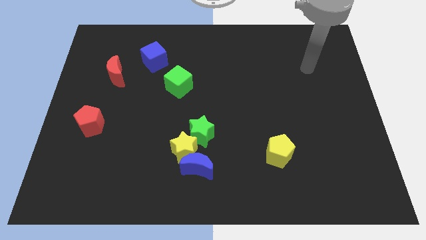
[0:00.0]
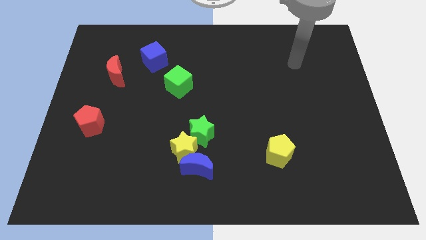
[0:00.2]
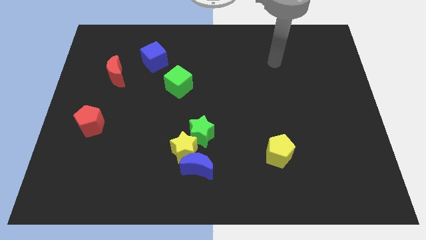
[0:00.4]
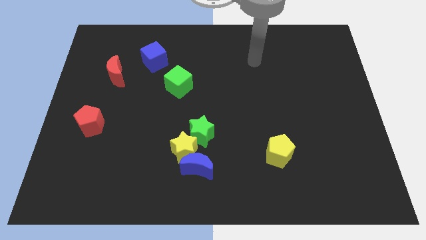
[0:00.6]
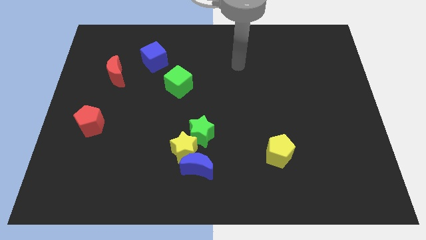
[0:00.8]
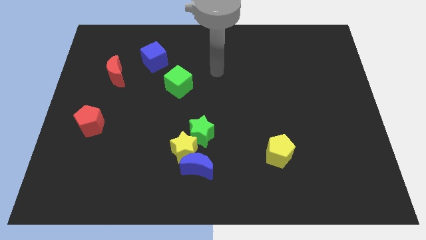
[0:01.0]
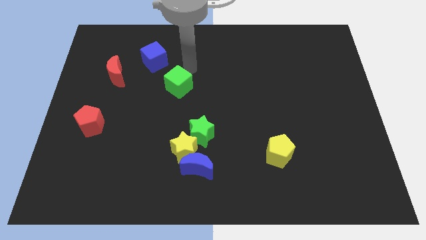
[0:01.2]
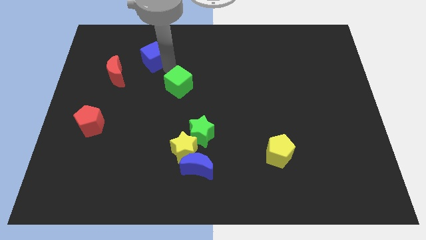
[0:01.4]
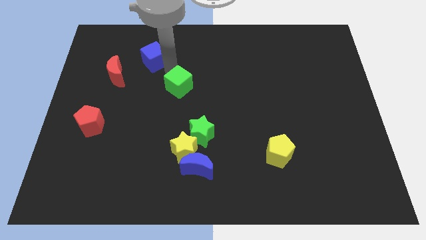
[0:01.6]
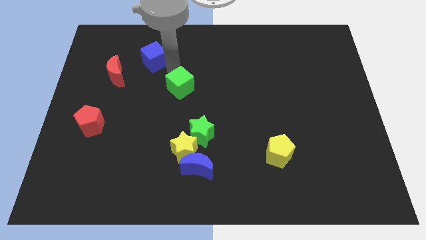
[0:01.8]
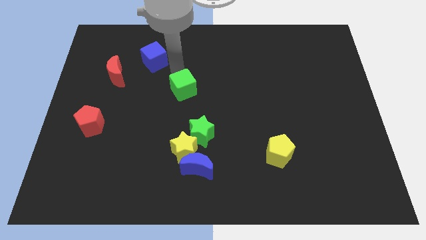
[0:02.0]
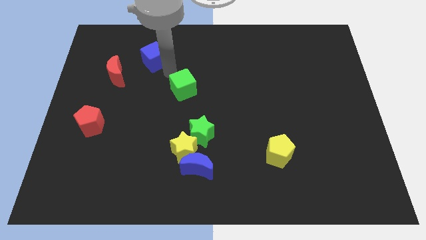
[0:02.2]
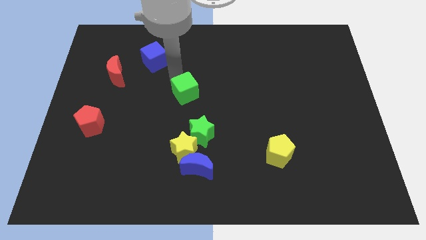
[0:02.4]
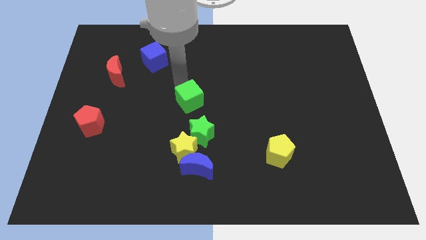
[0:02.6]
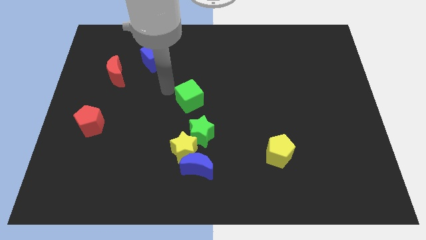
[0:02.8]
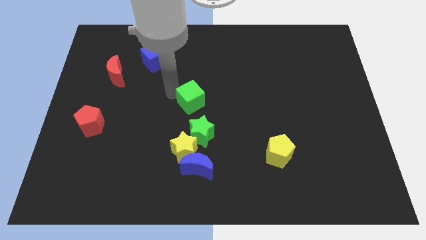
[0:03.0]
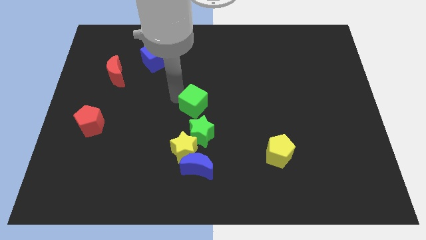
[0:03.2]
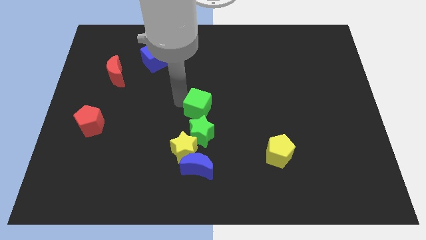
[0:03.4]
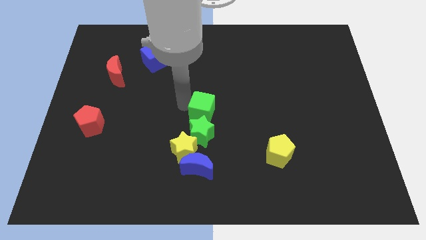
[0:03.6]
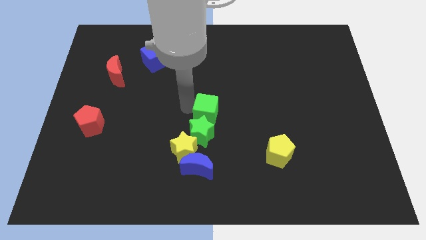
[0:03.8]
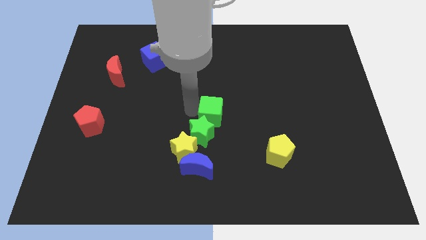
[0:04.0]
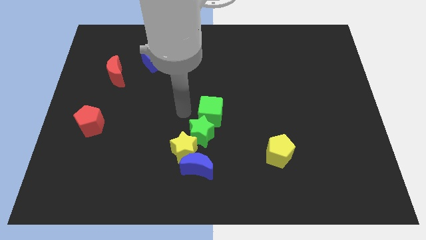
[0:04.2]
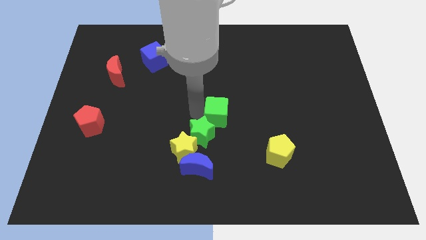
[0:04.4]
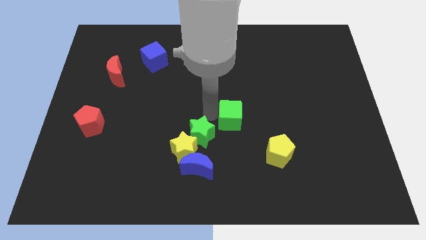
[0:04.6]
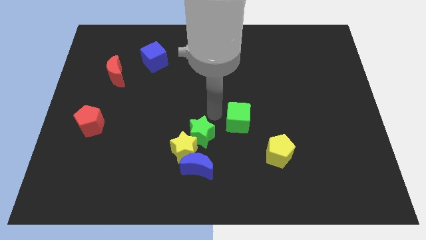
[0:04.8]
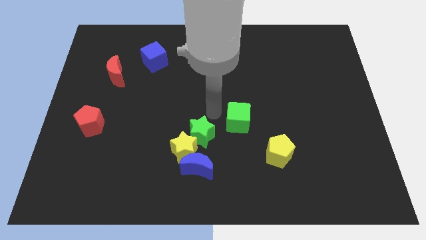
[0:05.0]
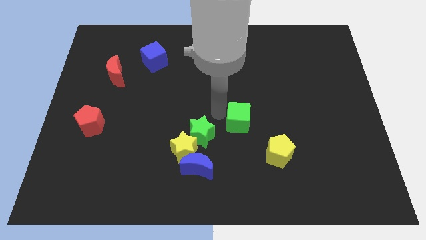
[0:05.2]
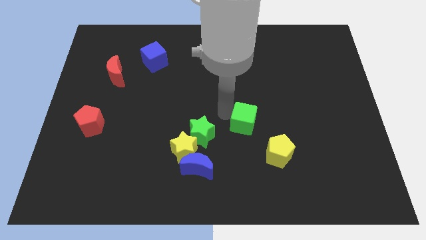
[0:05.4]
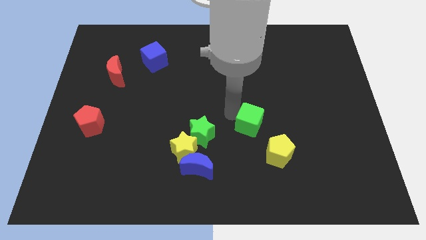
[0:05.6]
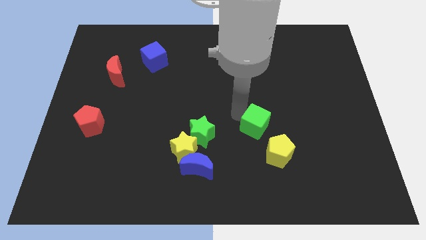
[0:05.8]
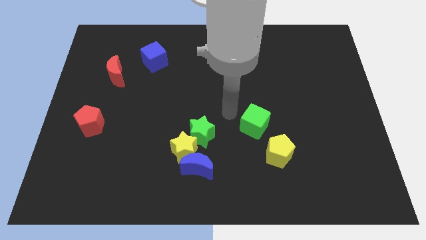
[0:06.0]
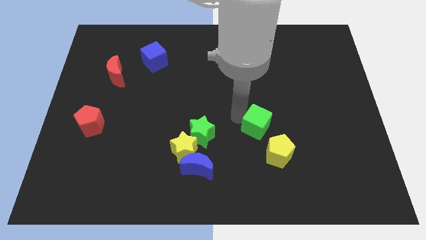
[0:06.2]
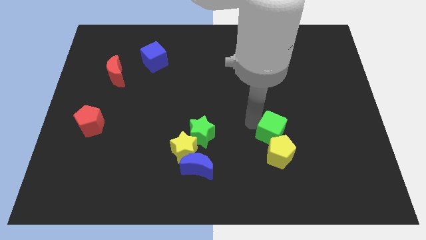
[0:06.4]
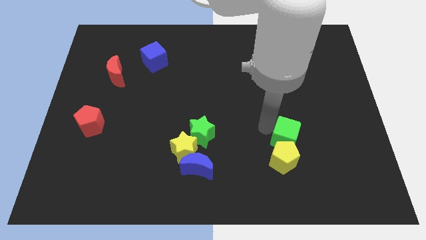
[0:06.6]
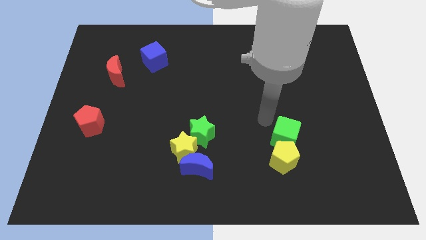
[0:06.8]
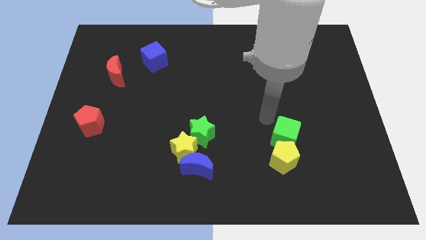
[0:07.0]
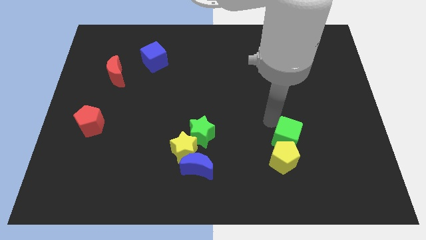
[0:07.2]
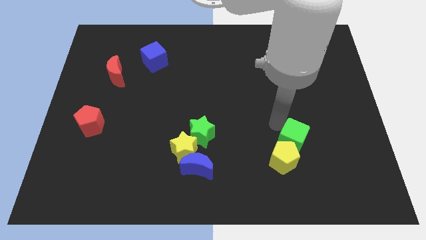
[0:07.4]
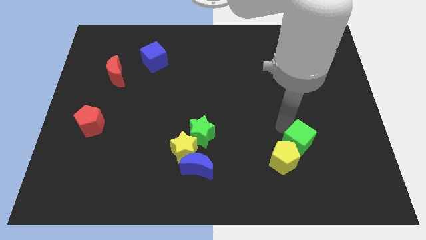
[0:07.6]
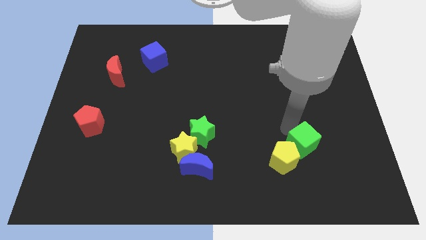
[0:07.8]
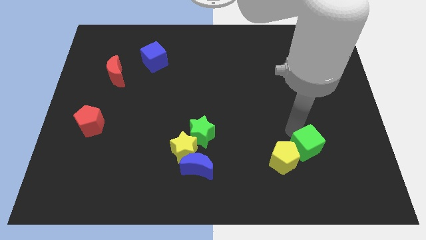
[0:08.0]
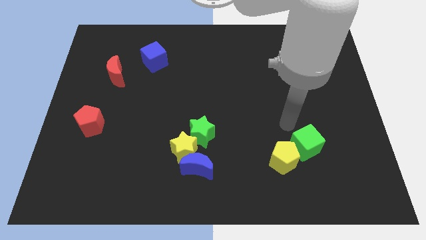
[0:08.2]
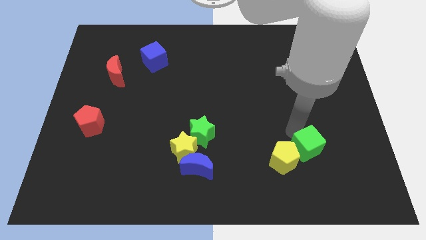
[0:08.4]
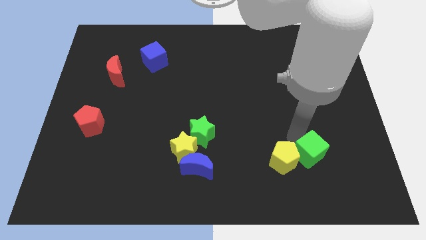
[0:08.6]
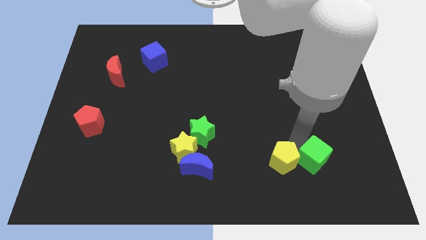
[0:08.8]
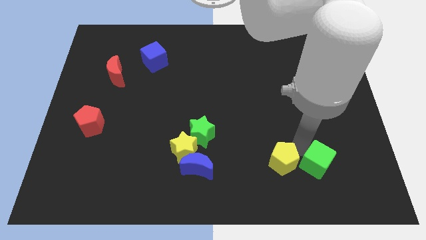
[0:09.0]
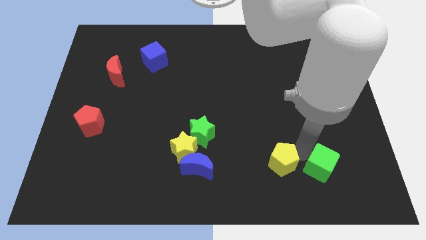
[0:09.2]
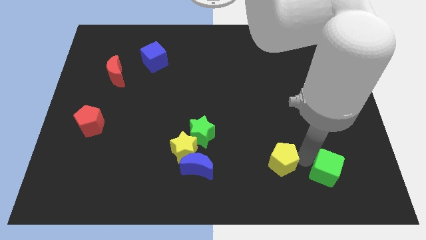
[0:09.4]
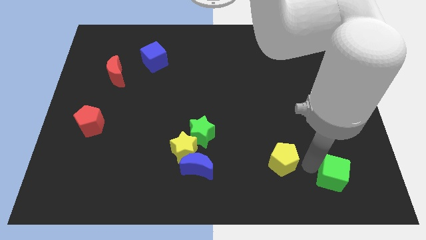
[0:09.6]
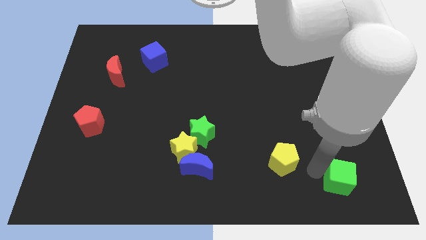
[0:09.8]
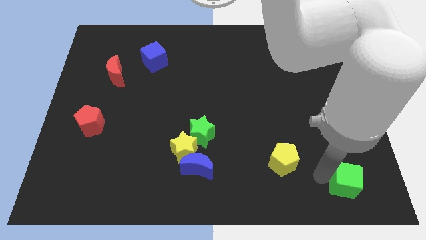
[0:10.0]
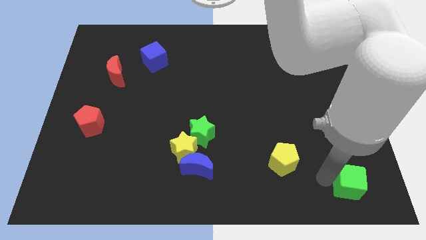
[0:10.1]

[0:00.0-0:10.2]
move the green cube to the bottom right corner

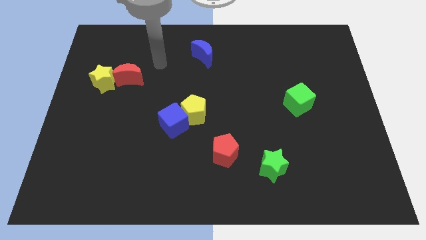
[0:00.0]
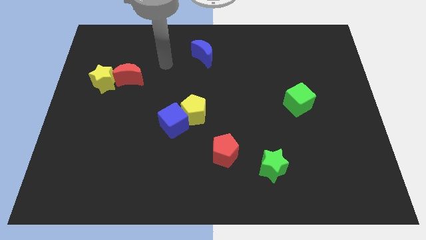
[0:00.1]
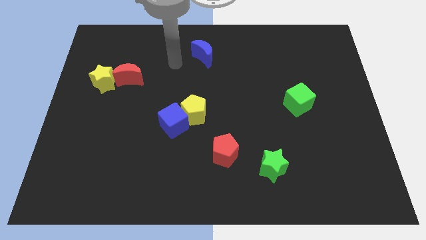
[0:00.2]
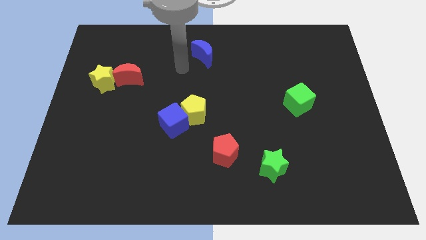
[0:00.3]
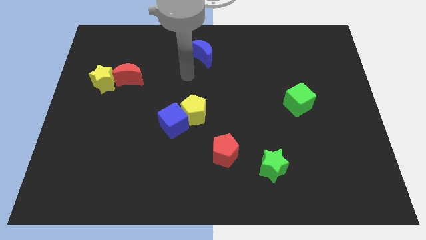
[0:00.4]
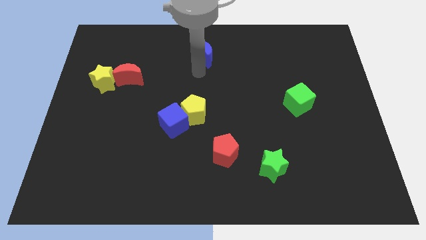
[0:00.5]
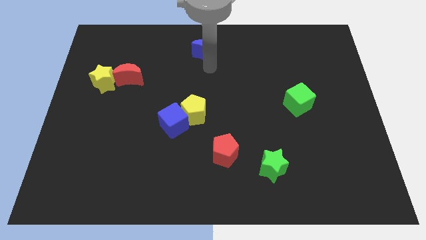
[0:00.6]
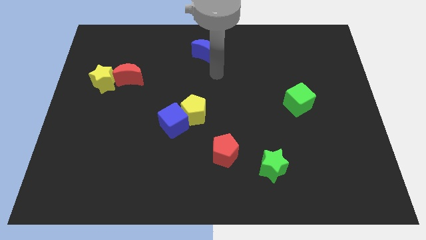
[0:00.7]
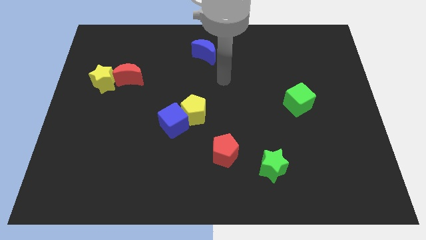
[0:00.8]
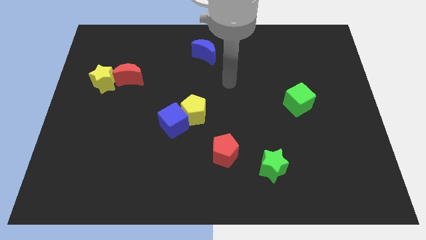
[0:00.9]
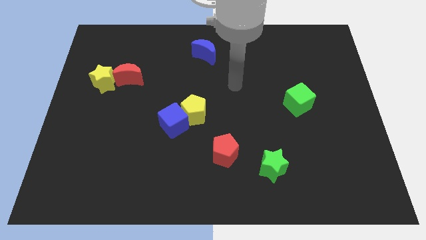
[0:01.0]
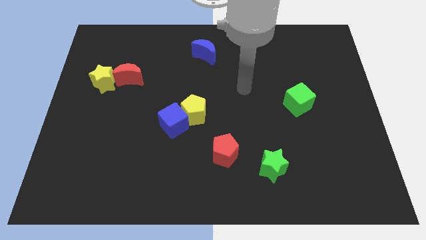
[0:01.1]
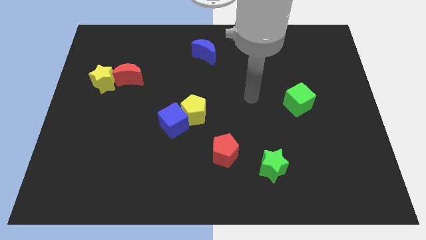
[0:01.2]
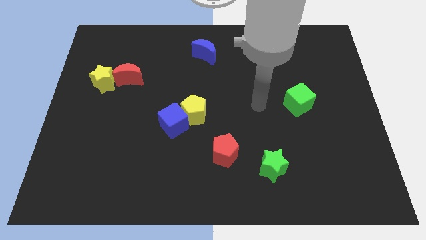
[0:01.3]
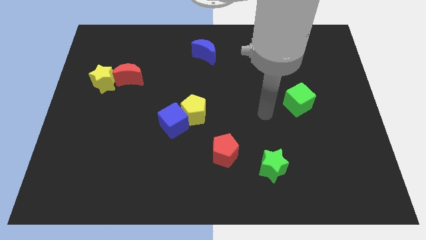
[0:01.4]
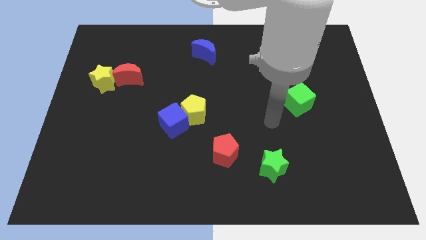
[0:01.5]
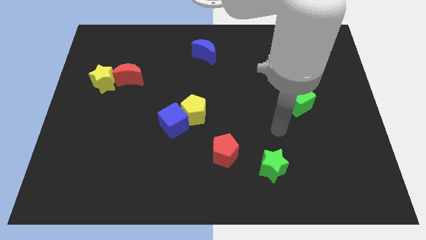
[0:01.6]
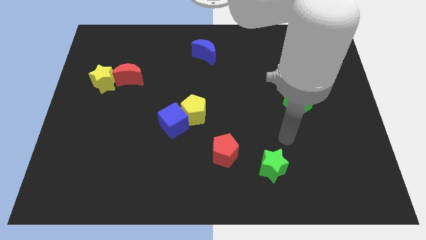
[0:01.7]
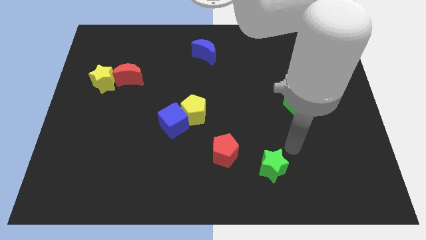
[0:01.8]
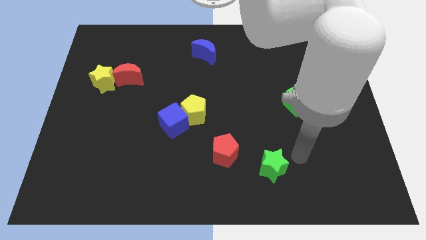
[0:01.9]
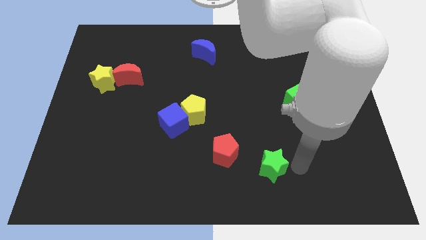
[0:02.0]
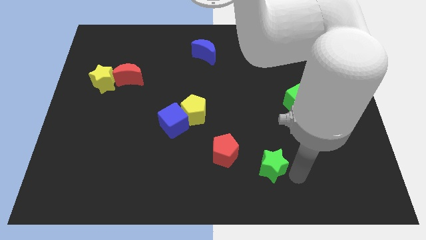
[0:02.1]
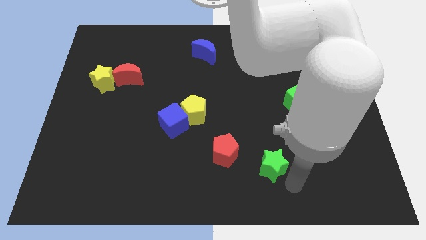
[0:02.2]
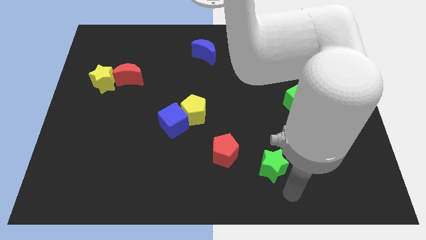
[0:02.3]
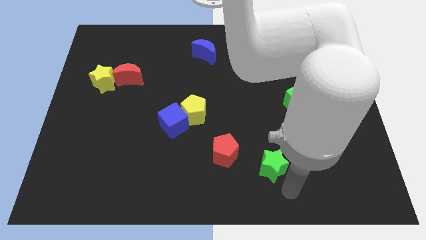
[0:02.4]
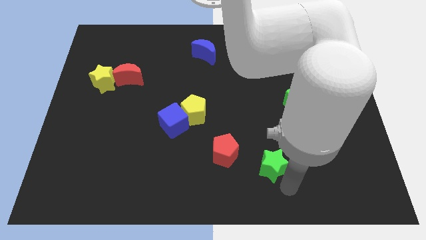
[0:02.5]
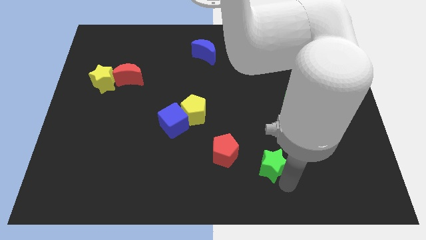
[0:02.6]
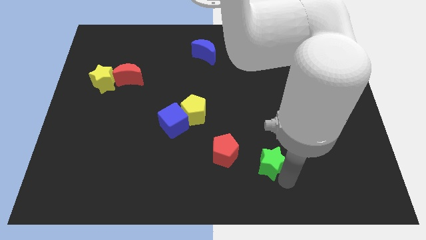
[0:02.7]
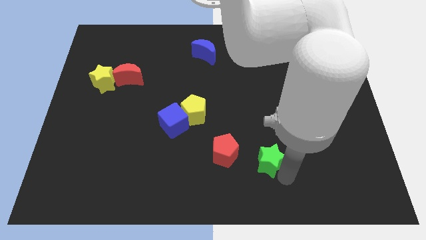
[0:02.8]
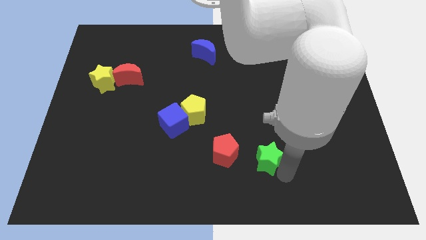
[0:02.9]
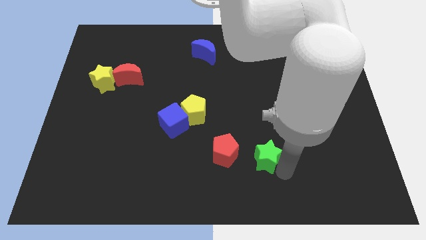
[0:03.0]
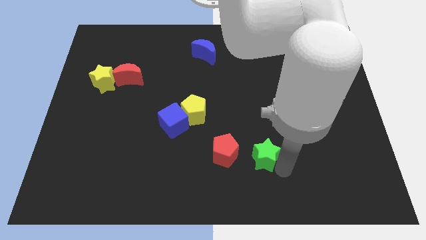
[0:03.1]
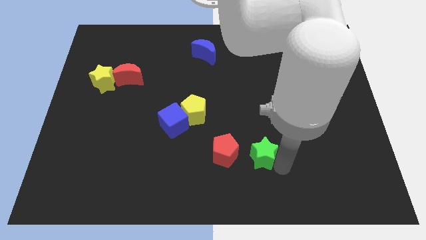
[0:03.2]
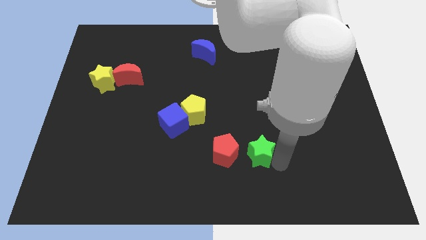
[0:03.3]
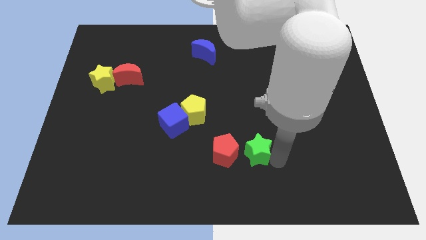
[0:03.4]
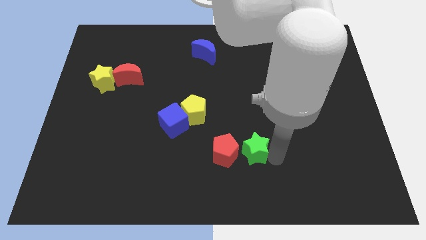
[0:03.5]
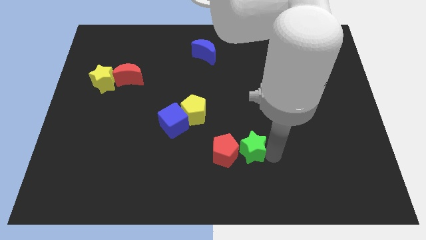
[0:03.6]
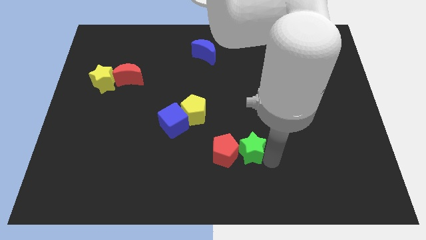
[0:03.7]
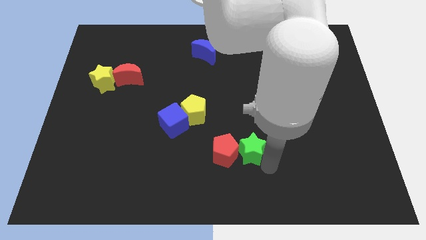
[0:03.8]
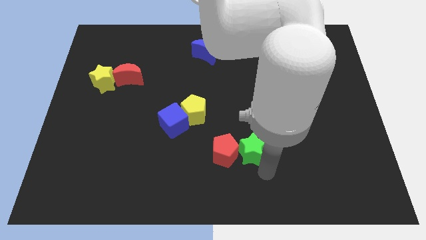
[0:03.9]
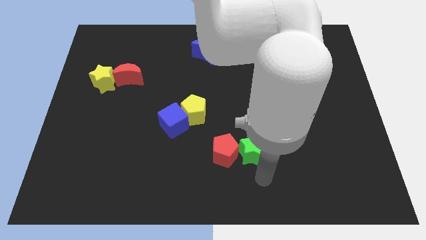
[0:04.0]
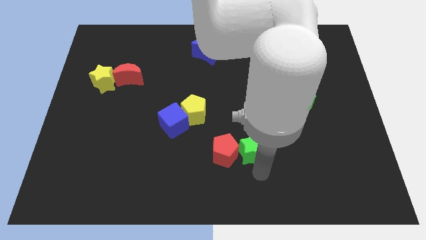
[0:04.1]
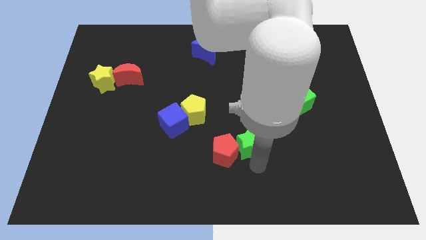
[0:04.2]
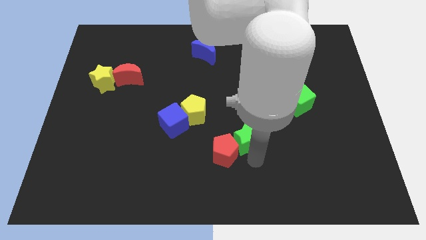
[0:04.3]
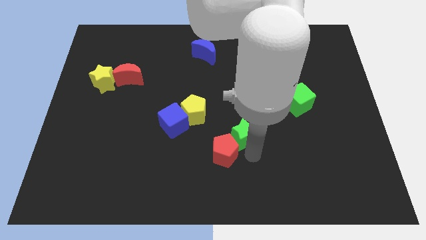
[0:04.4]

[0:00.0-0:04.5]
slide the green star to the center
